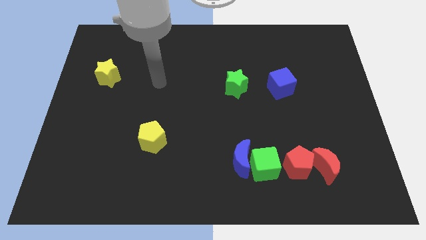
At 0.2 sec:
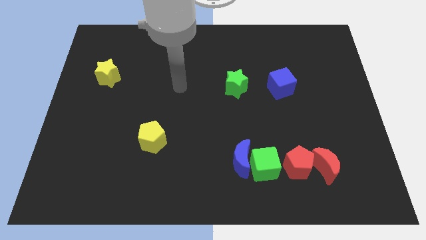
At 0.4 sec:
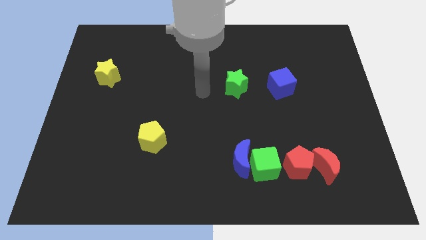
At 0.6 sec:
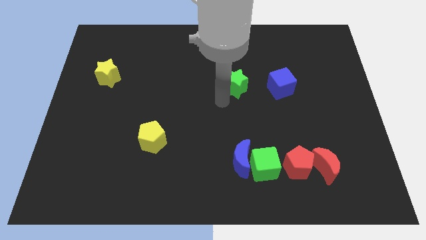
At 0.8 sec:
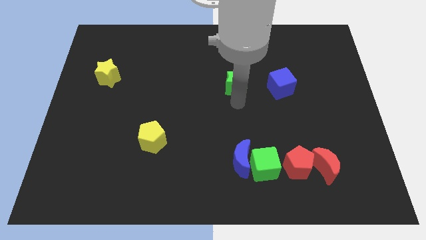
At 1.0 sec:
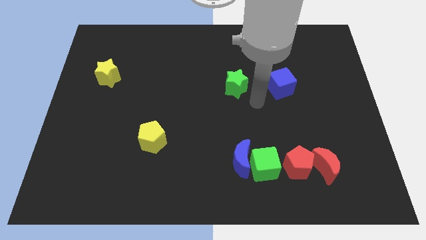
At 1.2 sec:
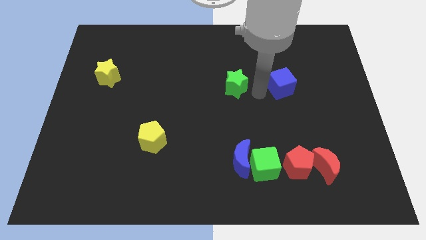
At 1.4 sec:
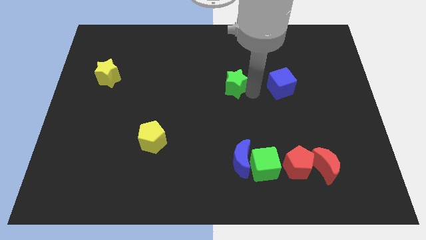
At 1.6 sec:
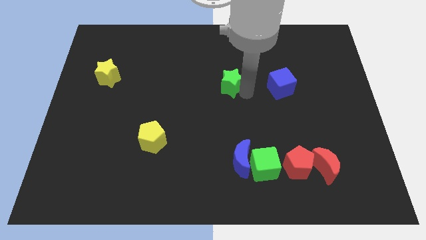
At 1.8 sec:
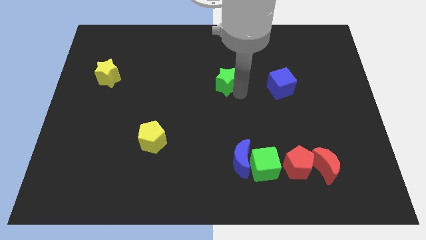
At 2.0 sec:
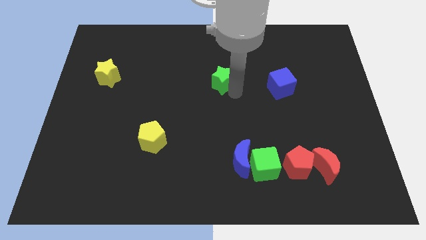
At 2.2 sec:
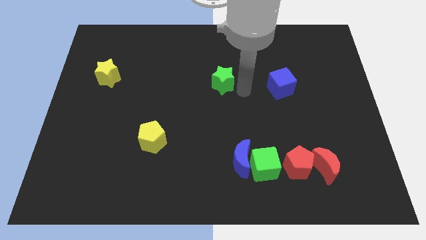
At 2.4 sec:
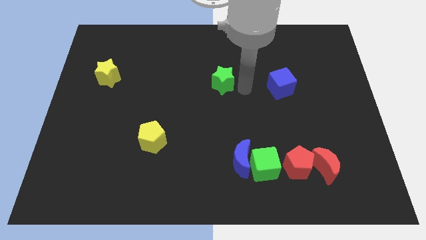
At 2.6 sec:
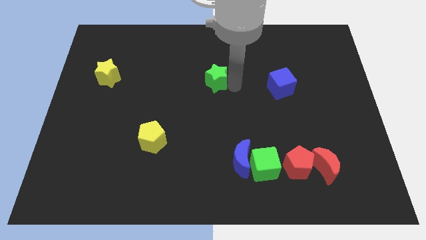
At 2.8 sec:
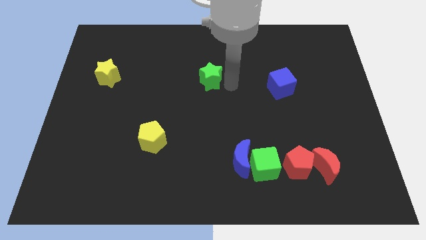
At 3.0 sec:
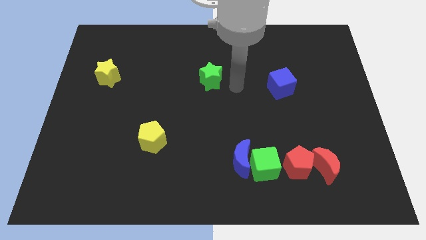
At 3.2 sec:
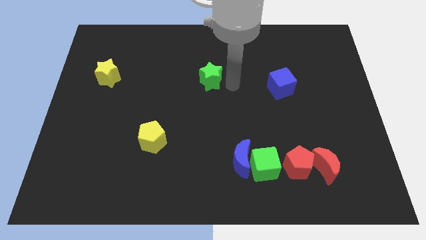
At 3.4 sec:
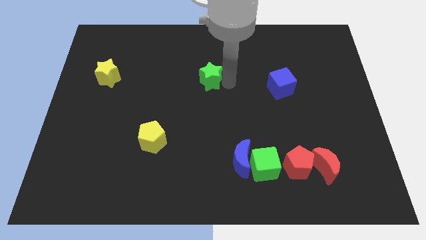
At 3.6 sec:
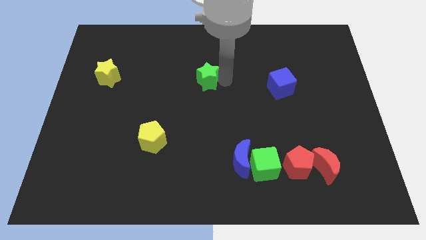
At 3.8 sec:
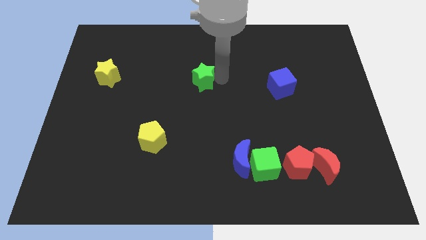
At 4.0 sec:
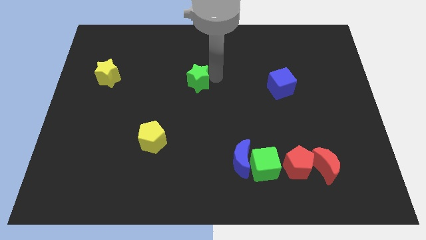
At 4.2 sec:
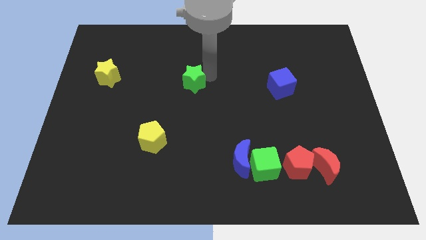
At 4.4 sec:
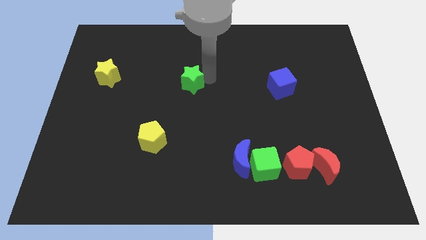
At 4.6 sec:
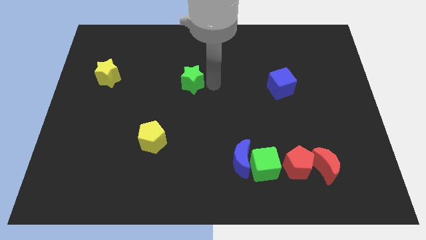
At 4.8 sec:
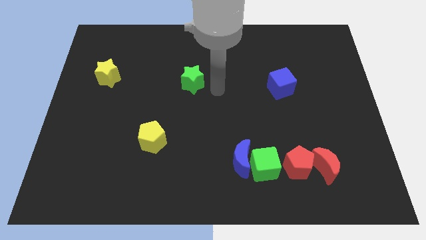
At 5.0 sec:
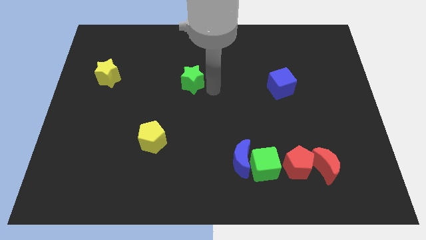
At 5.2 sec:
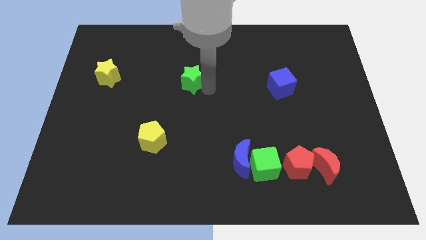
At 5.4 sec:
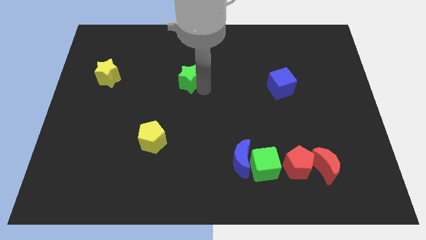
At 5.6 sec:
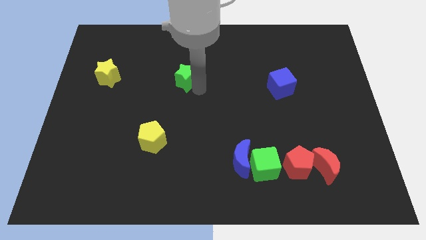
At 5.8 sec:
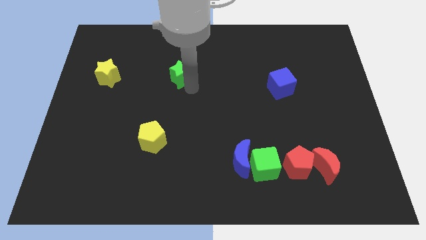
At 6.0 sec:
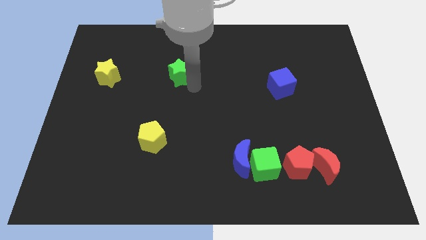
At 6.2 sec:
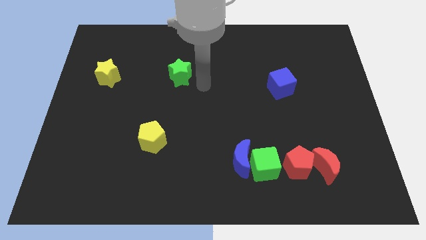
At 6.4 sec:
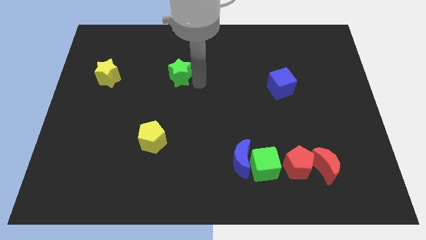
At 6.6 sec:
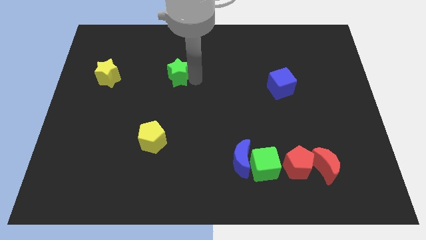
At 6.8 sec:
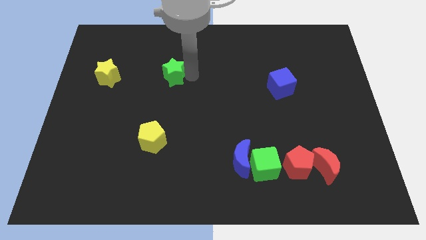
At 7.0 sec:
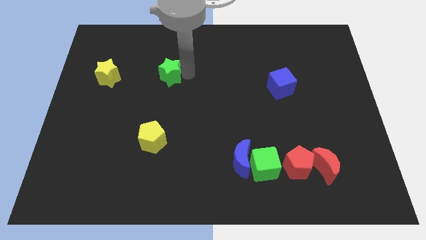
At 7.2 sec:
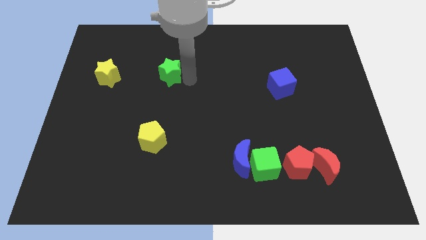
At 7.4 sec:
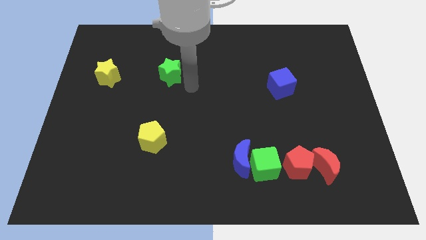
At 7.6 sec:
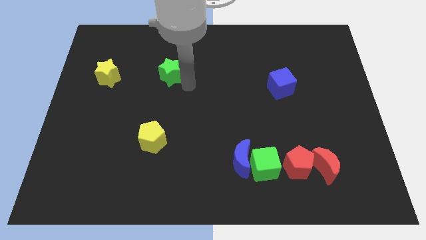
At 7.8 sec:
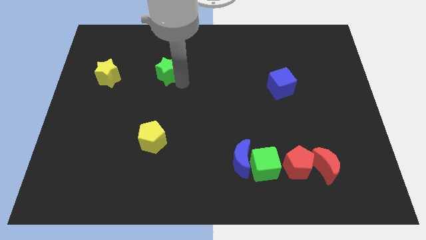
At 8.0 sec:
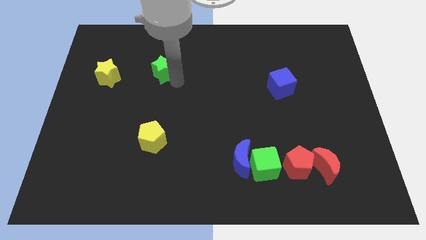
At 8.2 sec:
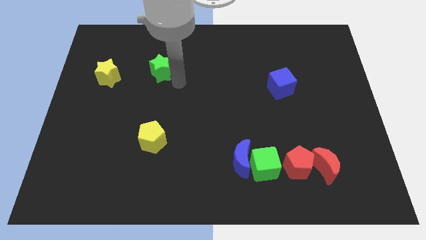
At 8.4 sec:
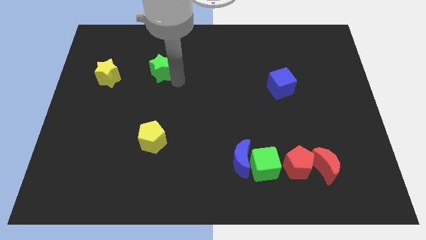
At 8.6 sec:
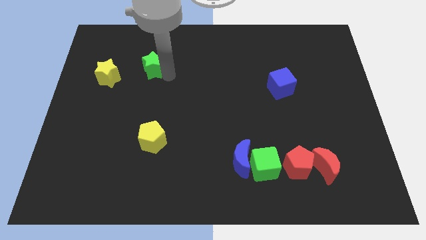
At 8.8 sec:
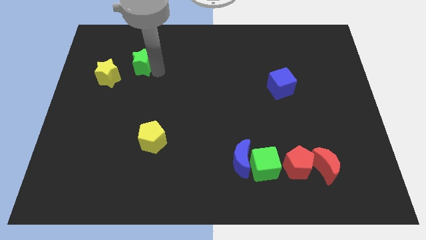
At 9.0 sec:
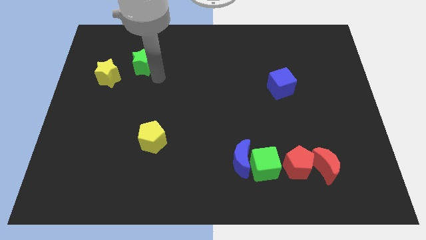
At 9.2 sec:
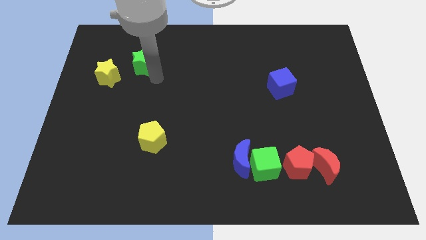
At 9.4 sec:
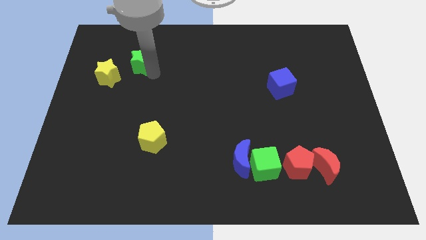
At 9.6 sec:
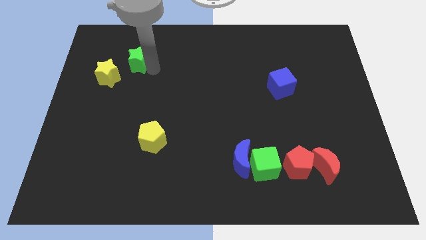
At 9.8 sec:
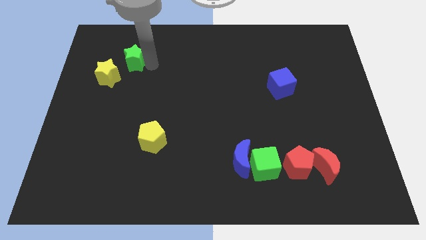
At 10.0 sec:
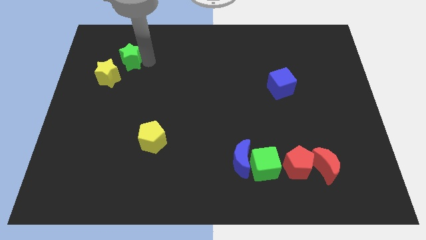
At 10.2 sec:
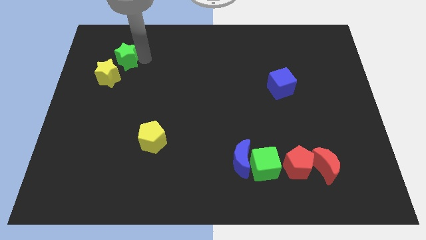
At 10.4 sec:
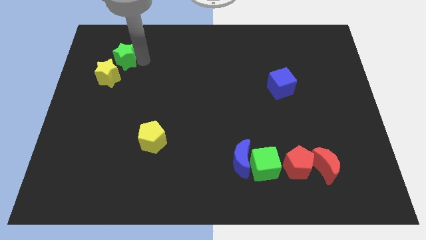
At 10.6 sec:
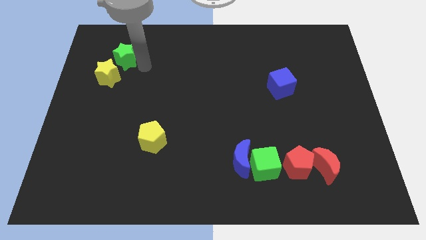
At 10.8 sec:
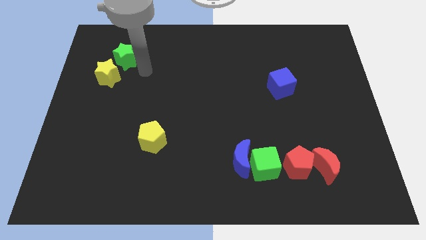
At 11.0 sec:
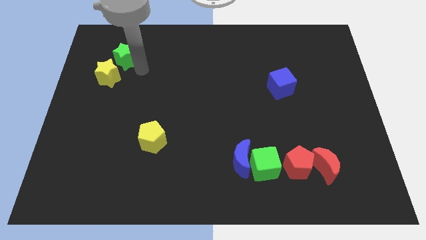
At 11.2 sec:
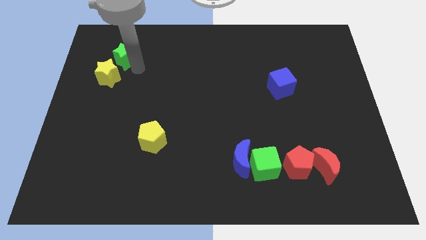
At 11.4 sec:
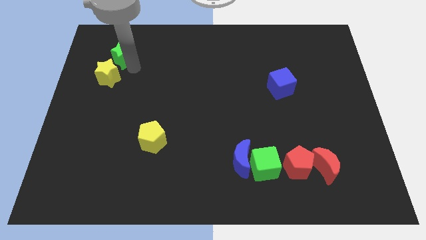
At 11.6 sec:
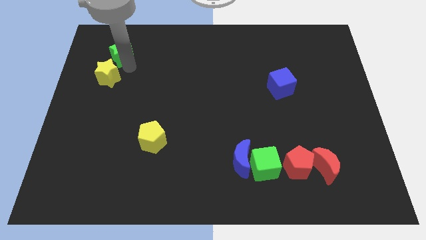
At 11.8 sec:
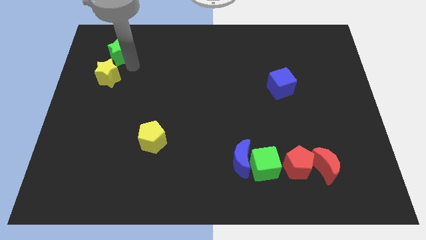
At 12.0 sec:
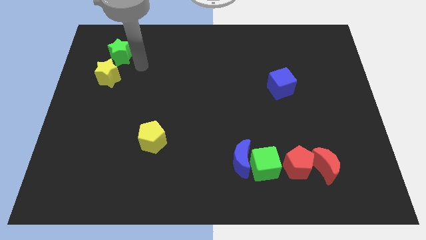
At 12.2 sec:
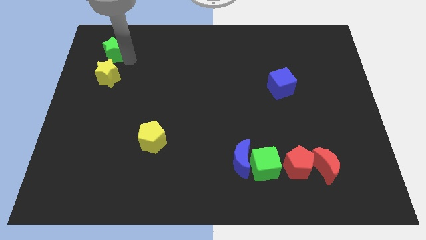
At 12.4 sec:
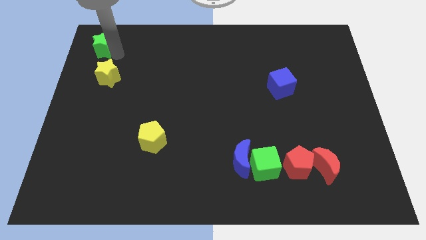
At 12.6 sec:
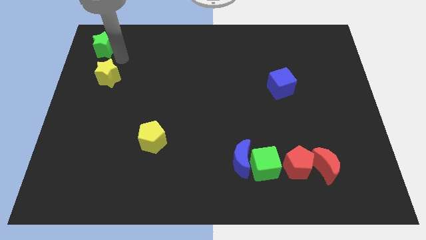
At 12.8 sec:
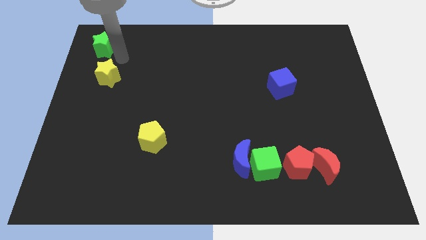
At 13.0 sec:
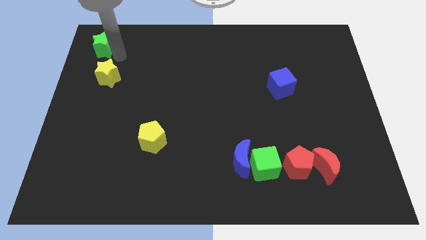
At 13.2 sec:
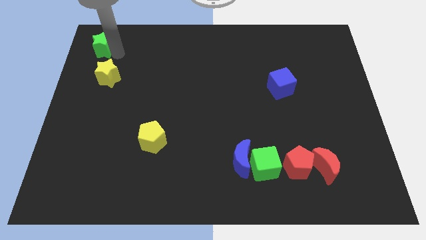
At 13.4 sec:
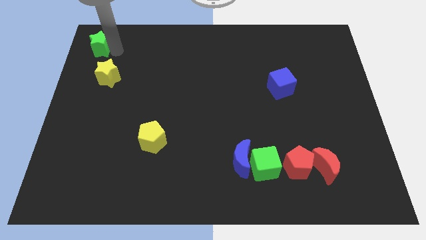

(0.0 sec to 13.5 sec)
put the green star to the top left corner

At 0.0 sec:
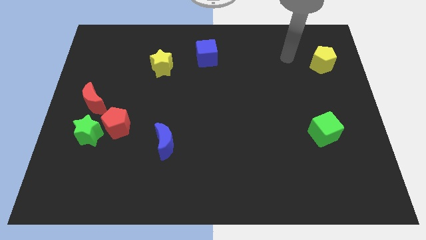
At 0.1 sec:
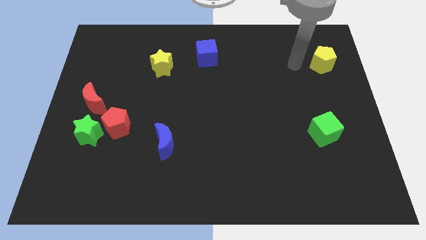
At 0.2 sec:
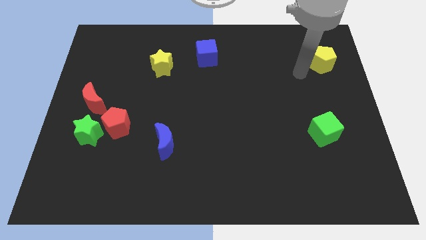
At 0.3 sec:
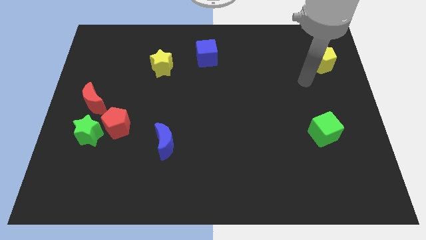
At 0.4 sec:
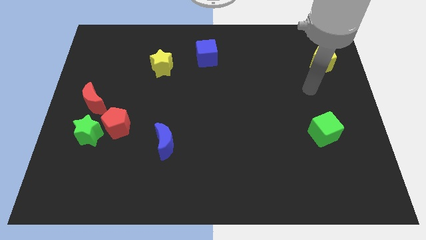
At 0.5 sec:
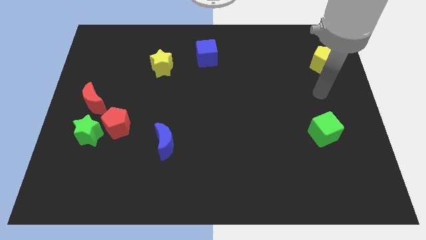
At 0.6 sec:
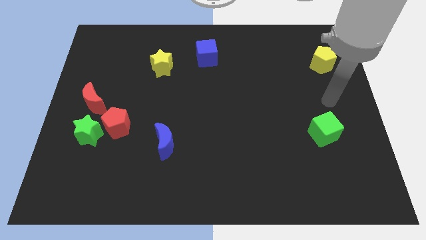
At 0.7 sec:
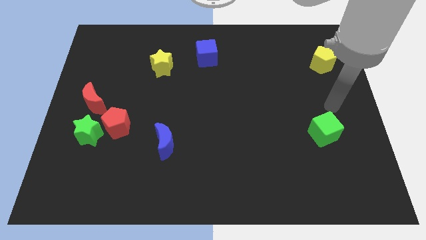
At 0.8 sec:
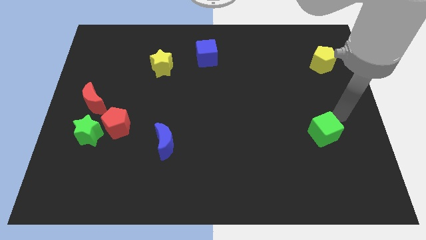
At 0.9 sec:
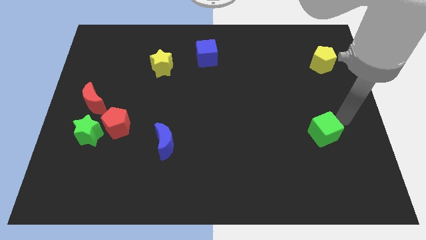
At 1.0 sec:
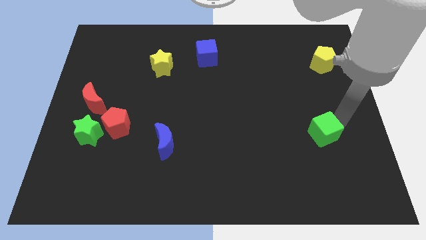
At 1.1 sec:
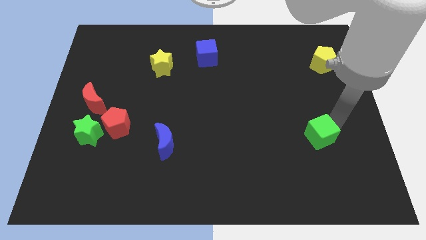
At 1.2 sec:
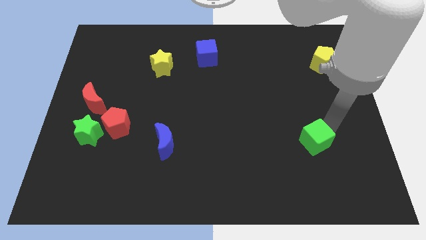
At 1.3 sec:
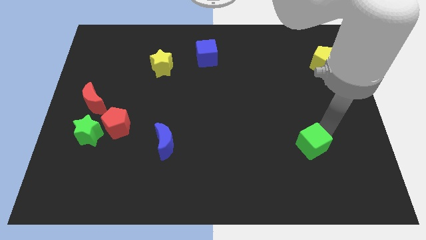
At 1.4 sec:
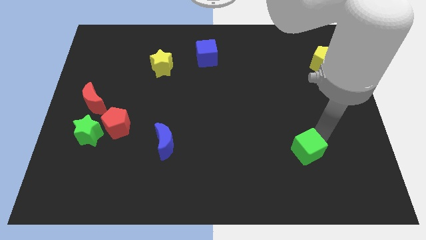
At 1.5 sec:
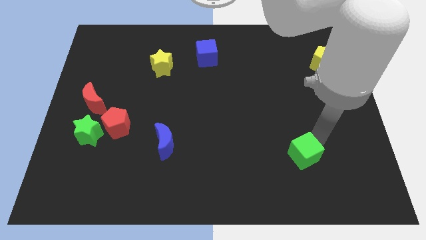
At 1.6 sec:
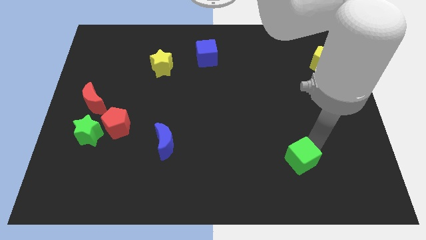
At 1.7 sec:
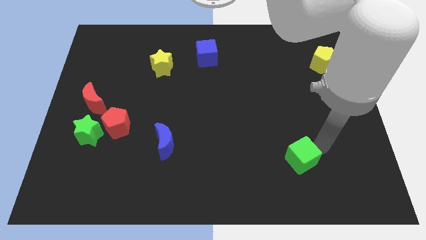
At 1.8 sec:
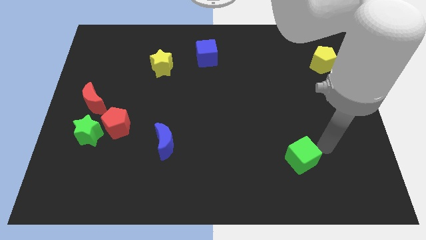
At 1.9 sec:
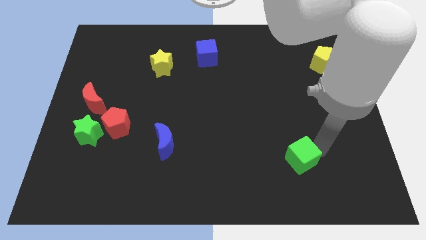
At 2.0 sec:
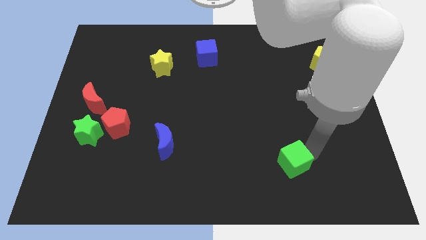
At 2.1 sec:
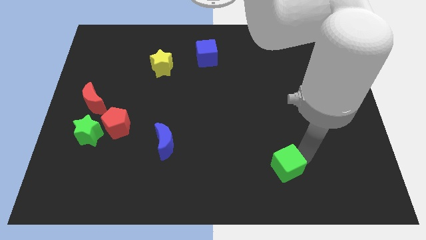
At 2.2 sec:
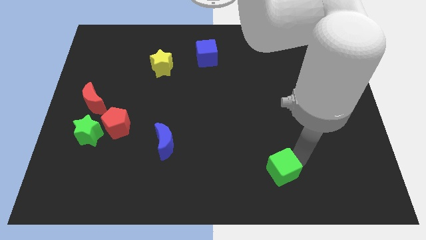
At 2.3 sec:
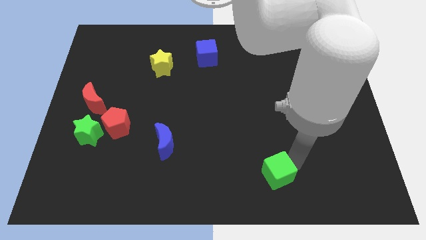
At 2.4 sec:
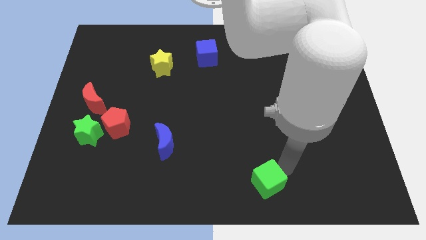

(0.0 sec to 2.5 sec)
slide the green cube to the bottom side
